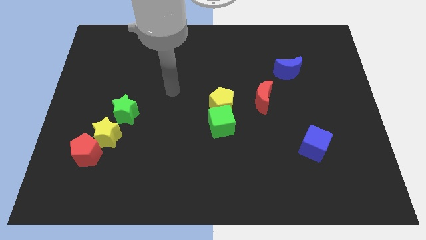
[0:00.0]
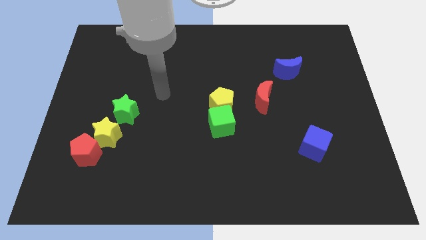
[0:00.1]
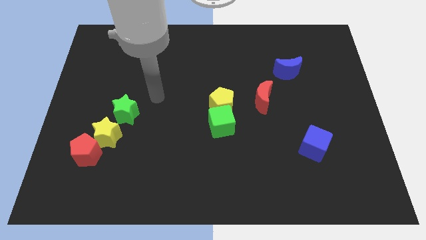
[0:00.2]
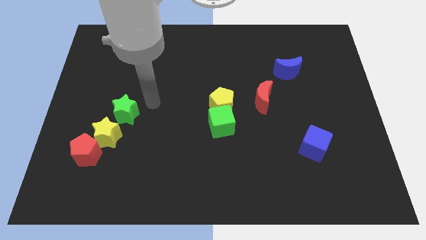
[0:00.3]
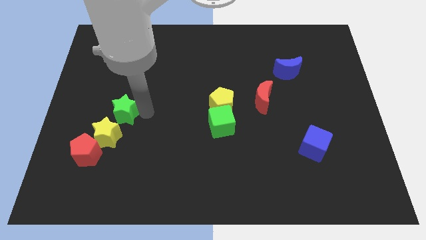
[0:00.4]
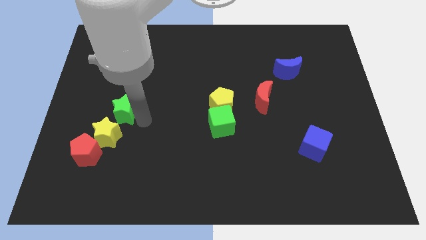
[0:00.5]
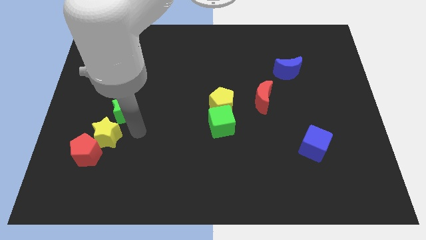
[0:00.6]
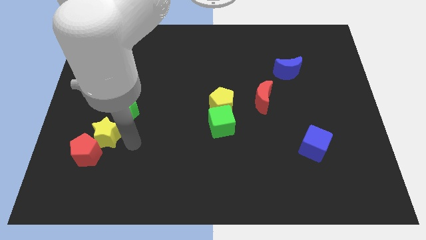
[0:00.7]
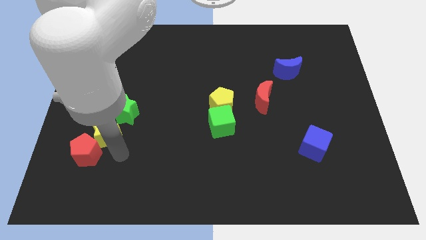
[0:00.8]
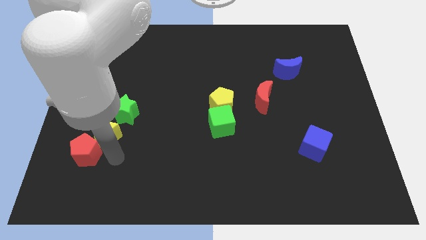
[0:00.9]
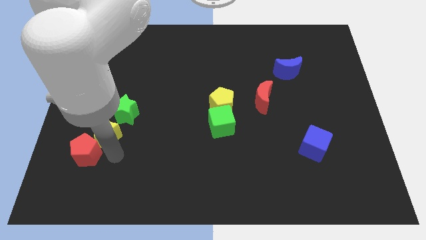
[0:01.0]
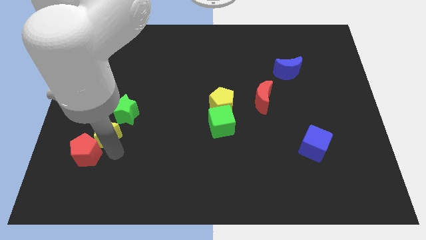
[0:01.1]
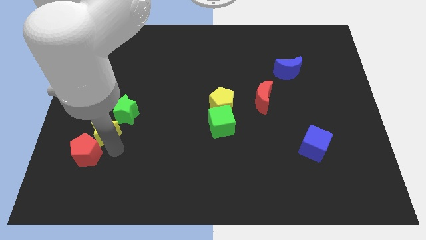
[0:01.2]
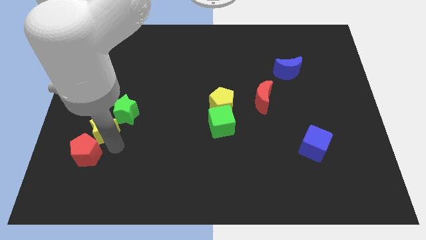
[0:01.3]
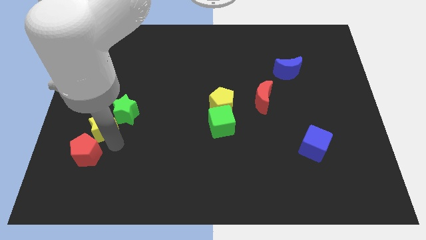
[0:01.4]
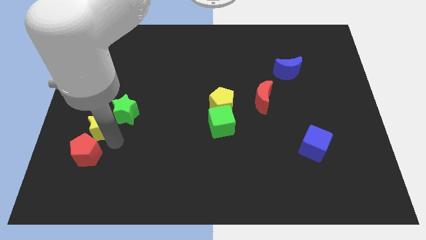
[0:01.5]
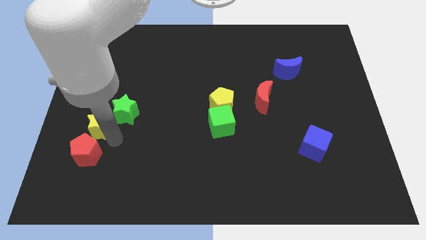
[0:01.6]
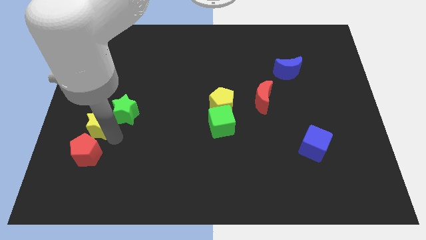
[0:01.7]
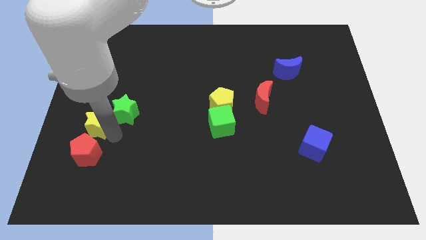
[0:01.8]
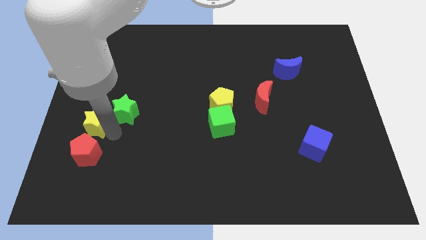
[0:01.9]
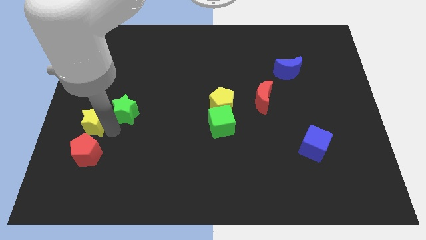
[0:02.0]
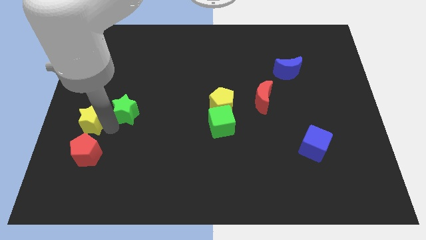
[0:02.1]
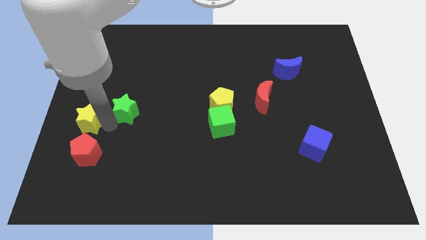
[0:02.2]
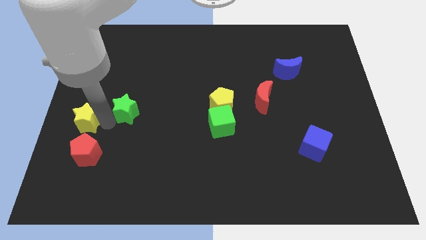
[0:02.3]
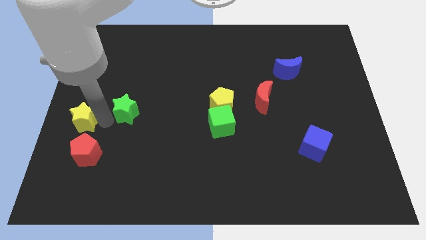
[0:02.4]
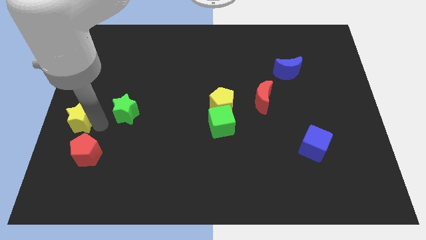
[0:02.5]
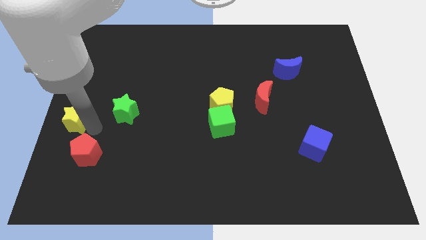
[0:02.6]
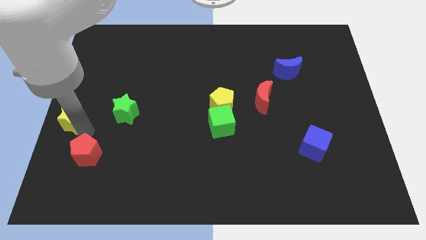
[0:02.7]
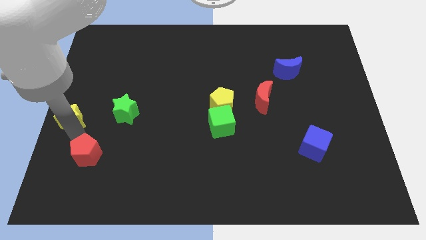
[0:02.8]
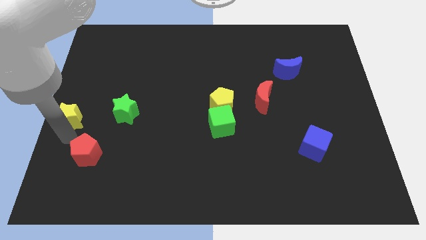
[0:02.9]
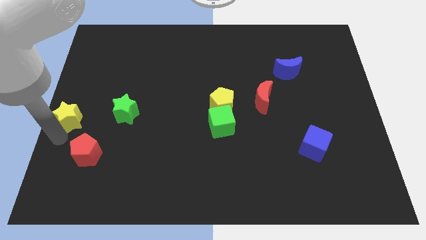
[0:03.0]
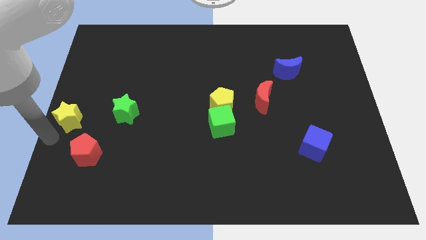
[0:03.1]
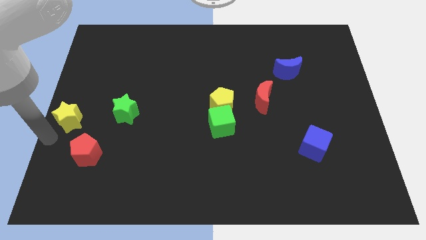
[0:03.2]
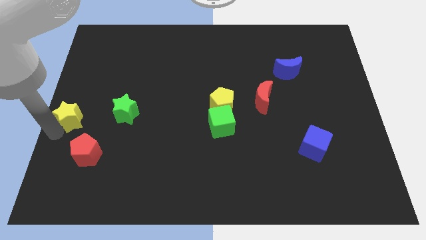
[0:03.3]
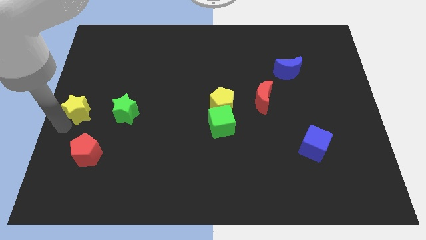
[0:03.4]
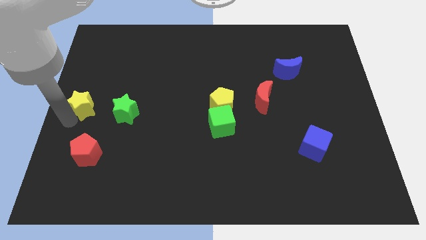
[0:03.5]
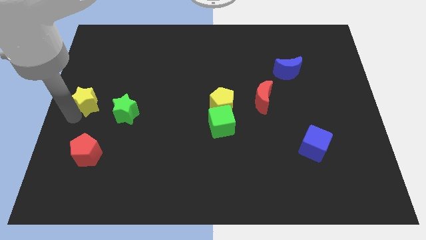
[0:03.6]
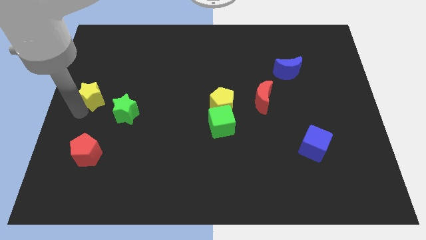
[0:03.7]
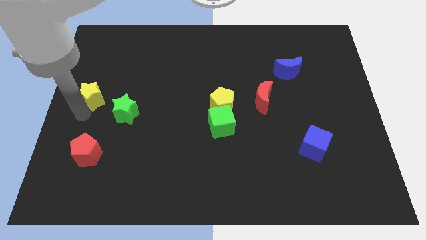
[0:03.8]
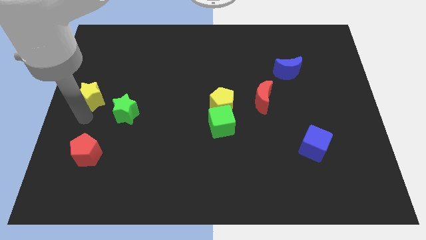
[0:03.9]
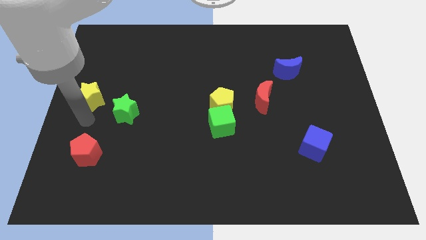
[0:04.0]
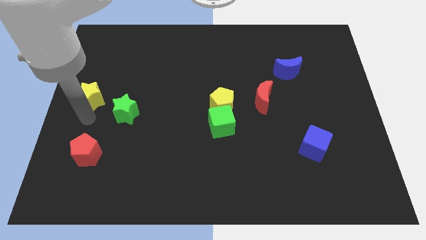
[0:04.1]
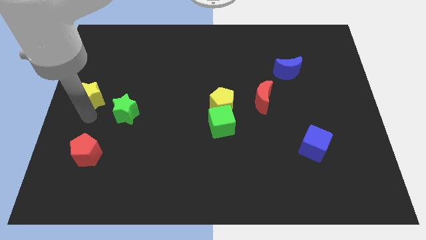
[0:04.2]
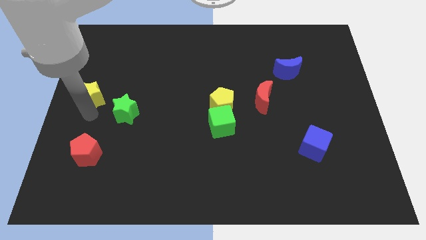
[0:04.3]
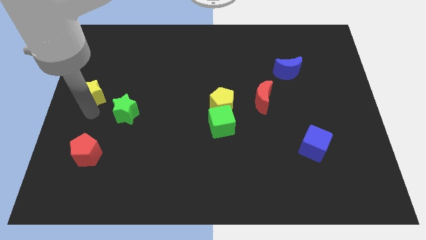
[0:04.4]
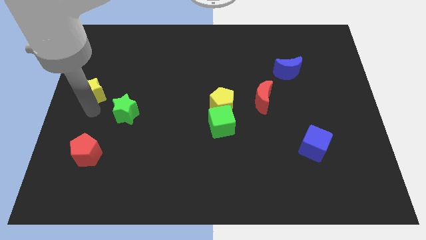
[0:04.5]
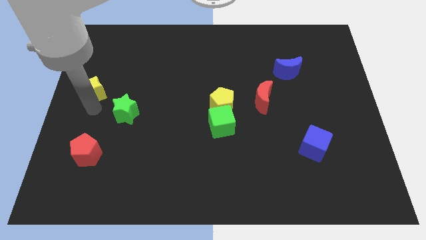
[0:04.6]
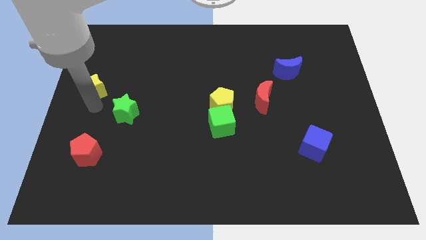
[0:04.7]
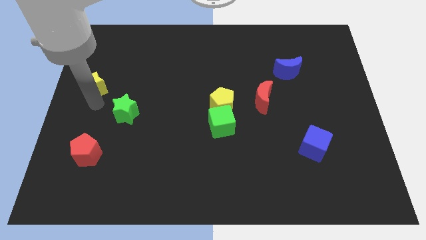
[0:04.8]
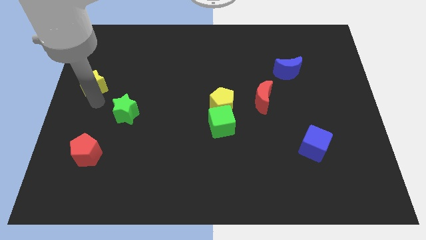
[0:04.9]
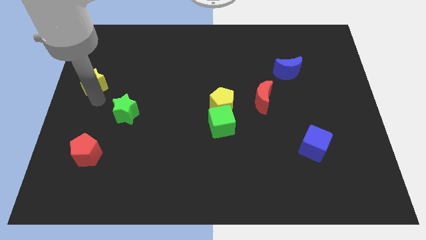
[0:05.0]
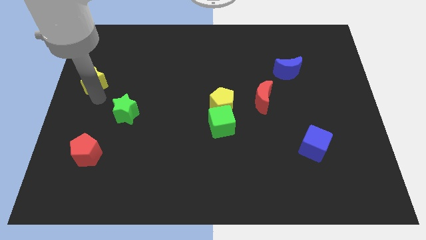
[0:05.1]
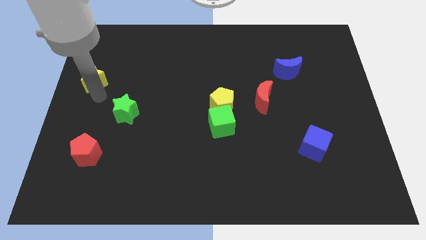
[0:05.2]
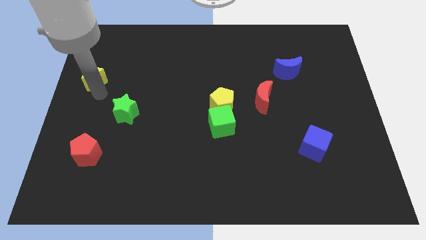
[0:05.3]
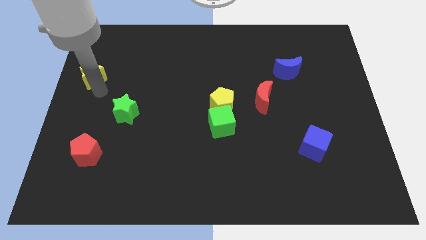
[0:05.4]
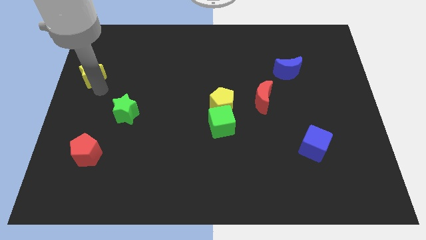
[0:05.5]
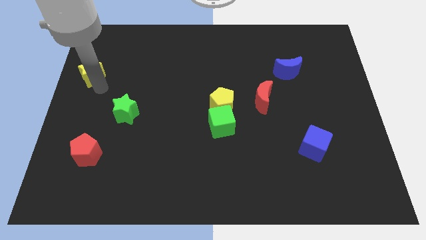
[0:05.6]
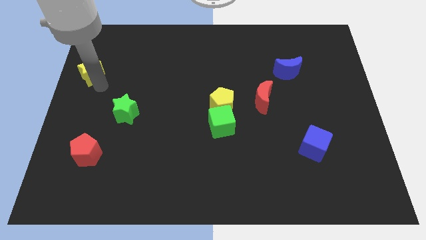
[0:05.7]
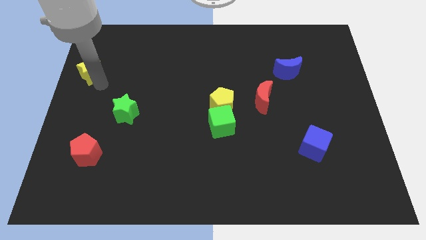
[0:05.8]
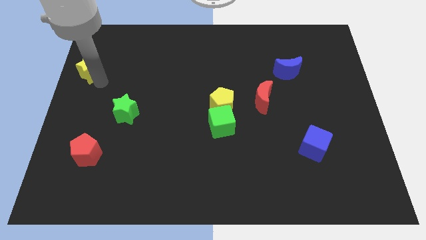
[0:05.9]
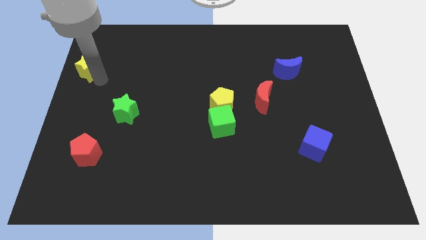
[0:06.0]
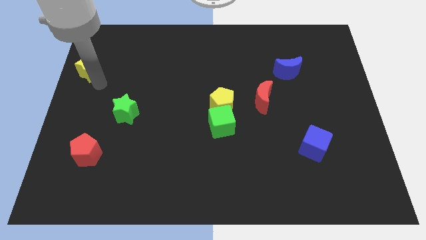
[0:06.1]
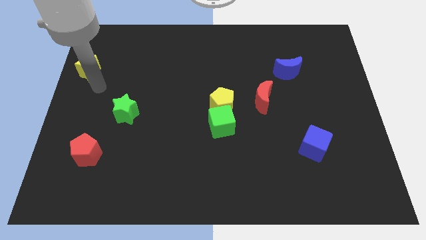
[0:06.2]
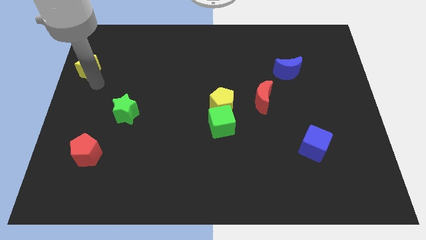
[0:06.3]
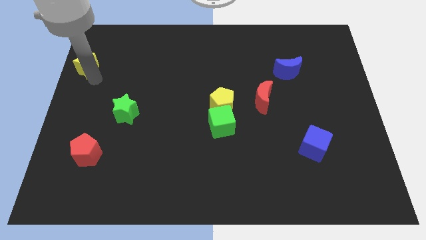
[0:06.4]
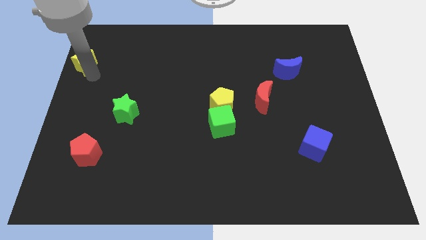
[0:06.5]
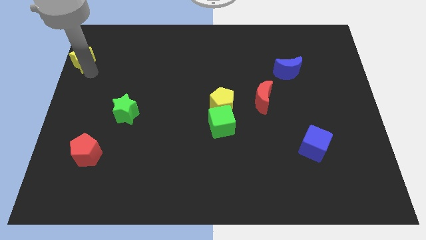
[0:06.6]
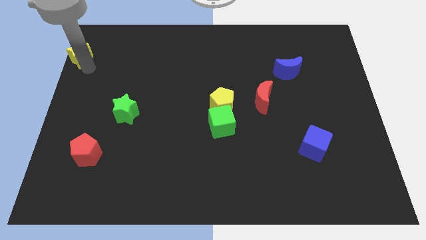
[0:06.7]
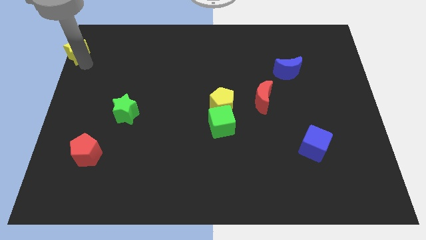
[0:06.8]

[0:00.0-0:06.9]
put the yellow star to the top left corner
